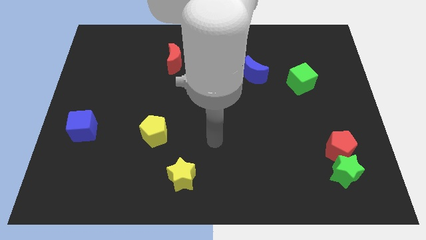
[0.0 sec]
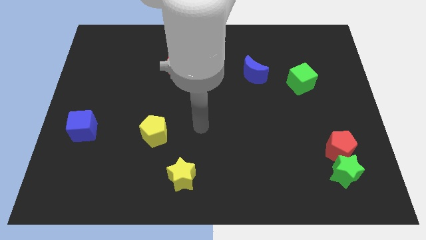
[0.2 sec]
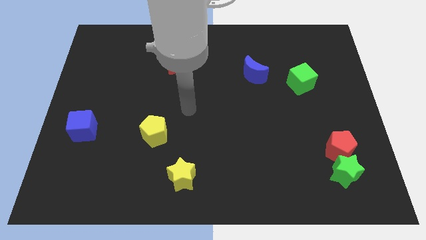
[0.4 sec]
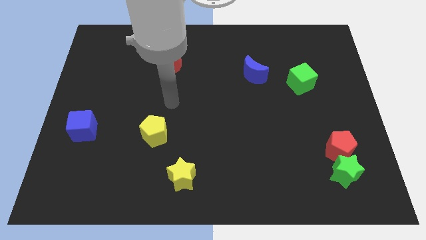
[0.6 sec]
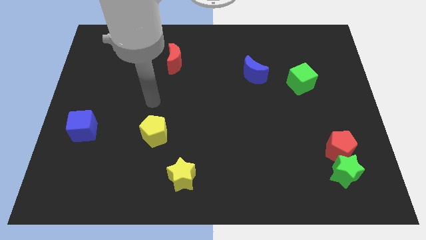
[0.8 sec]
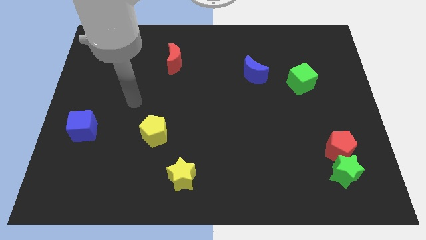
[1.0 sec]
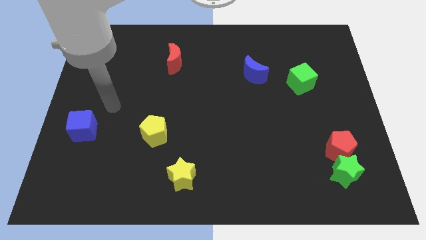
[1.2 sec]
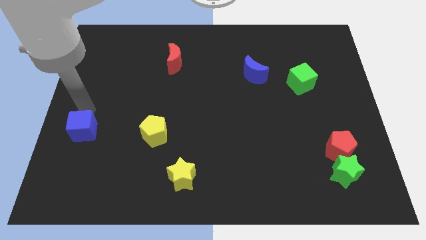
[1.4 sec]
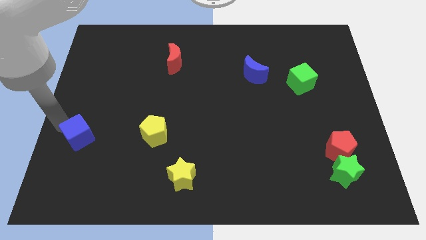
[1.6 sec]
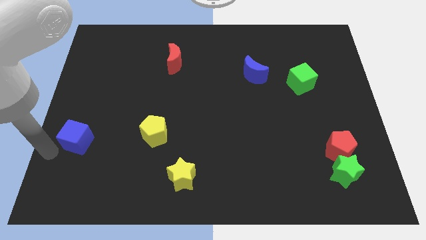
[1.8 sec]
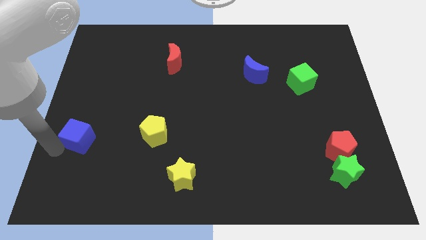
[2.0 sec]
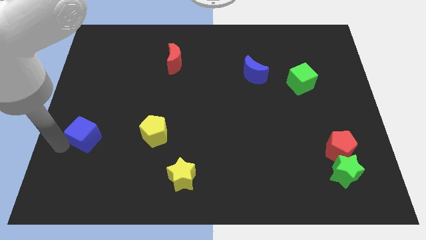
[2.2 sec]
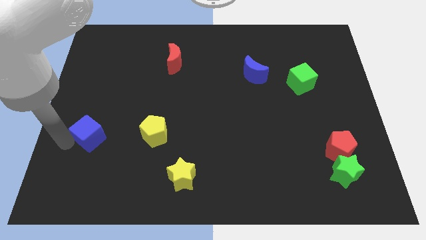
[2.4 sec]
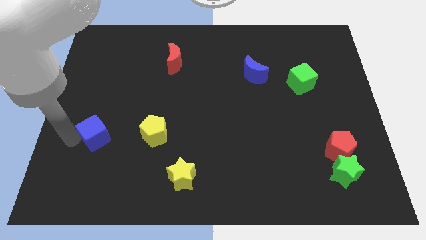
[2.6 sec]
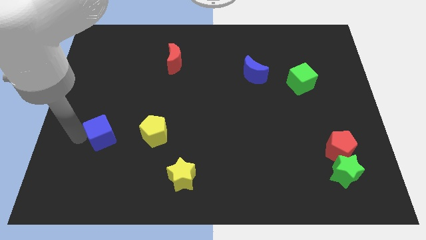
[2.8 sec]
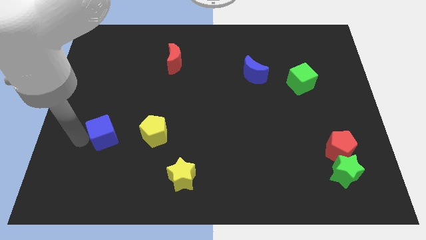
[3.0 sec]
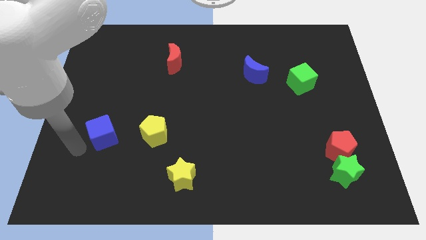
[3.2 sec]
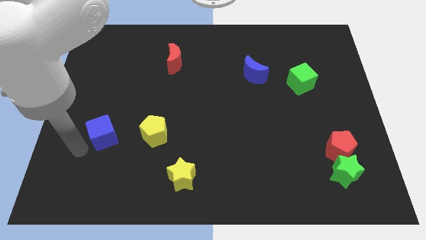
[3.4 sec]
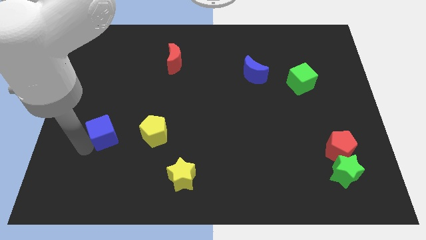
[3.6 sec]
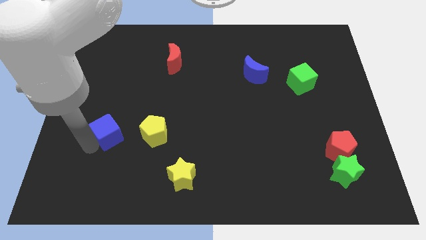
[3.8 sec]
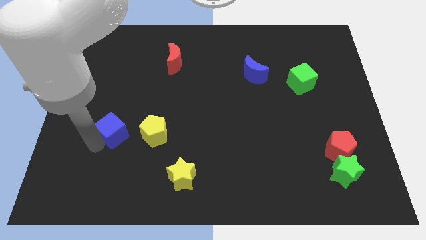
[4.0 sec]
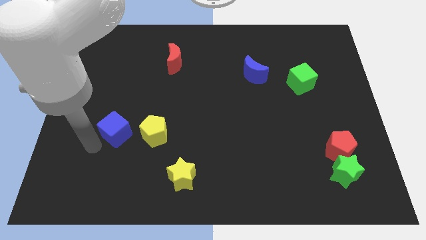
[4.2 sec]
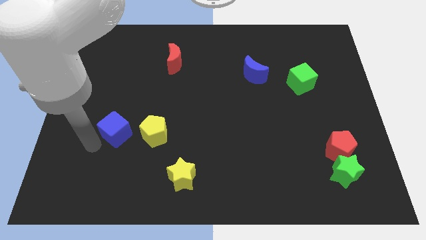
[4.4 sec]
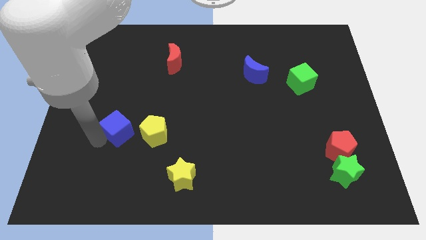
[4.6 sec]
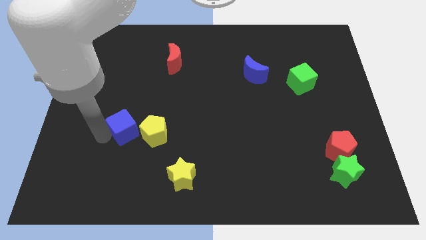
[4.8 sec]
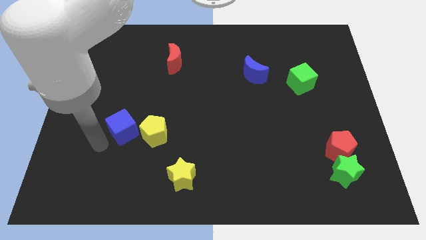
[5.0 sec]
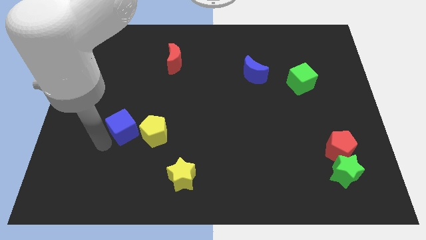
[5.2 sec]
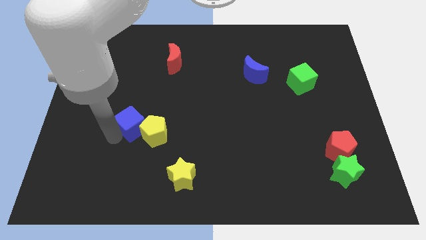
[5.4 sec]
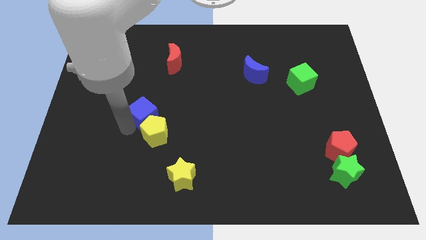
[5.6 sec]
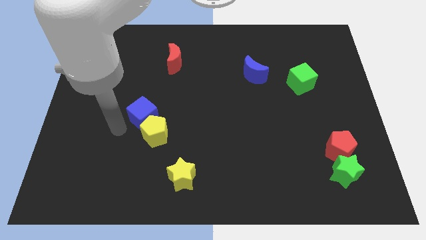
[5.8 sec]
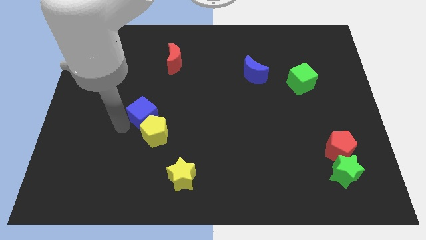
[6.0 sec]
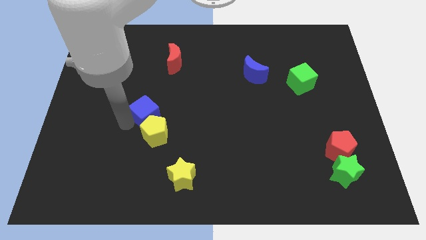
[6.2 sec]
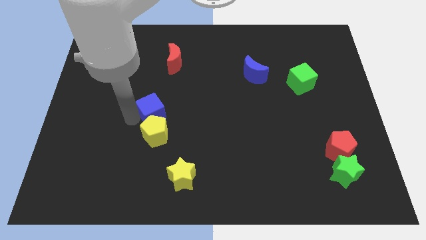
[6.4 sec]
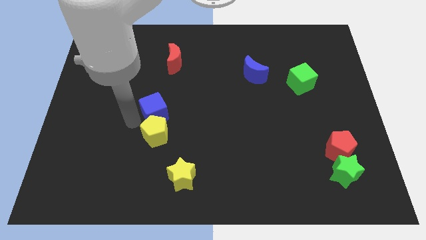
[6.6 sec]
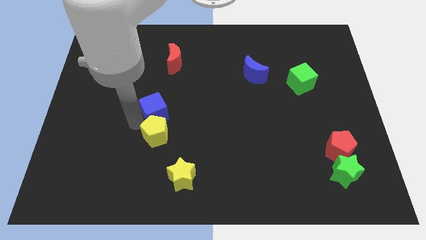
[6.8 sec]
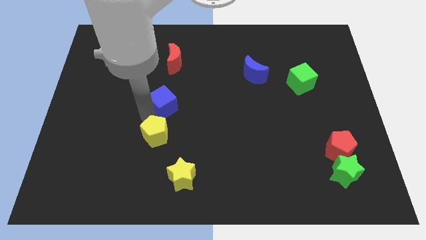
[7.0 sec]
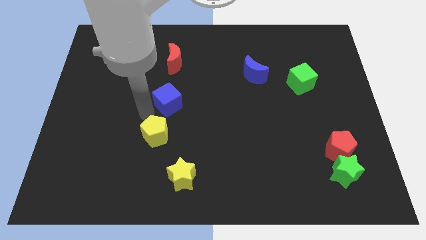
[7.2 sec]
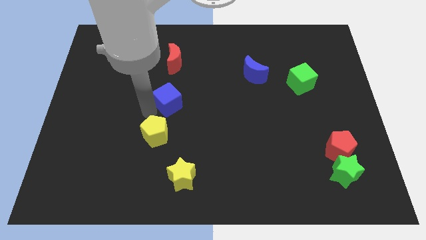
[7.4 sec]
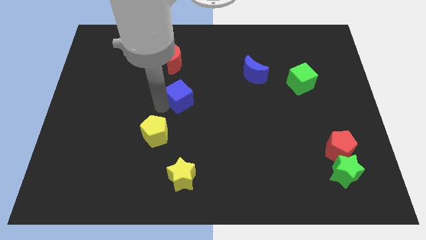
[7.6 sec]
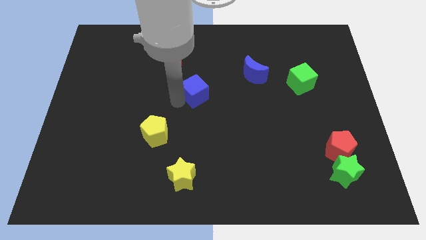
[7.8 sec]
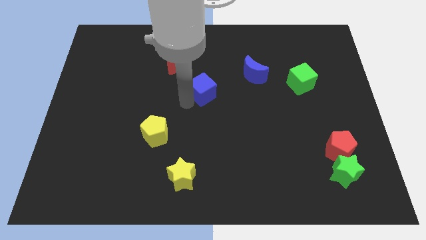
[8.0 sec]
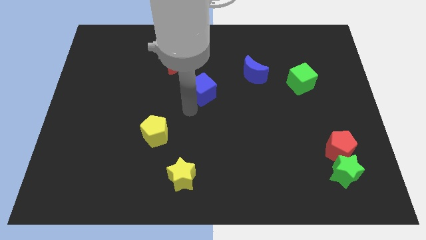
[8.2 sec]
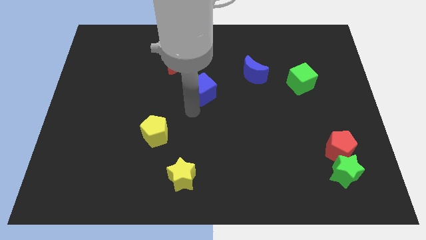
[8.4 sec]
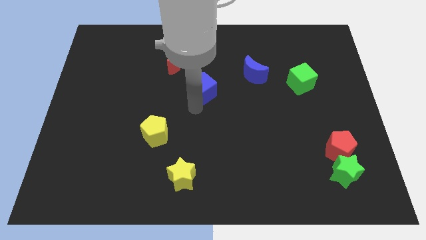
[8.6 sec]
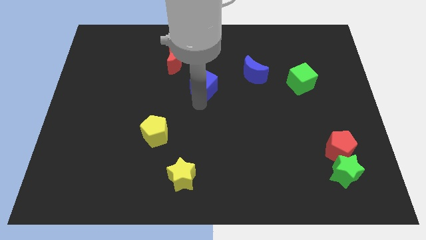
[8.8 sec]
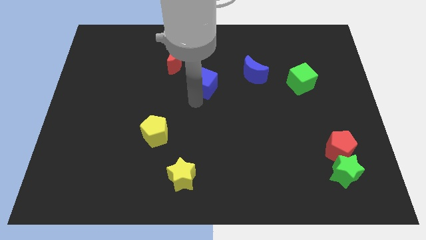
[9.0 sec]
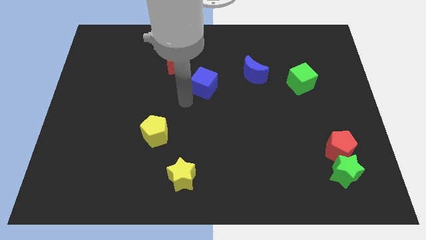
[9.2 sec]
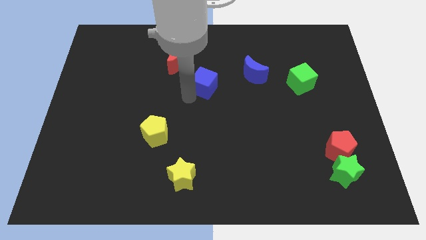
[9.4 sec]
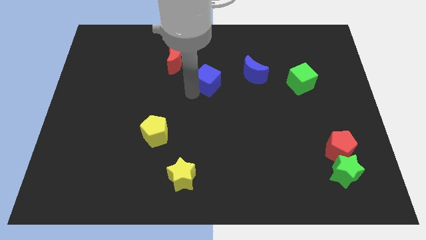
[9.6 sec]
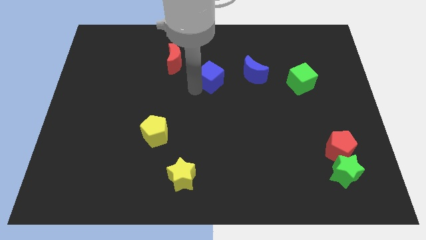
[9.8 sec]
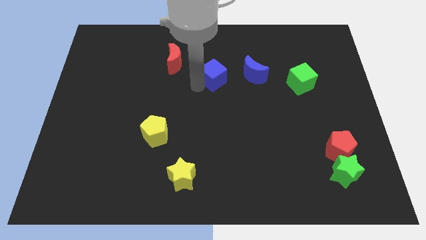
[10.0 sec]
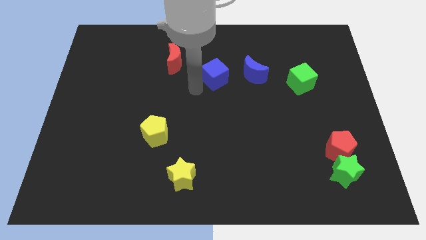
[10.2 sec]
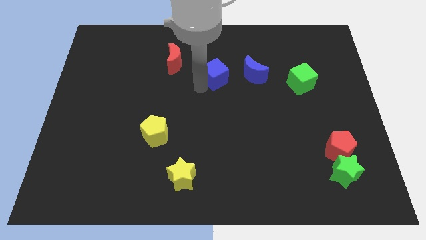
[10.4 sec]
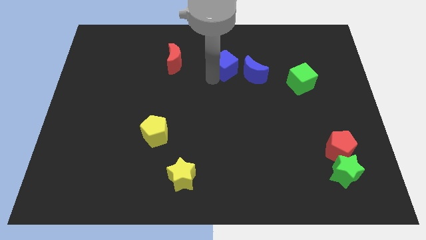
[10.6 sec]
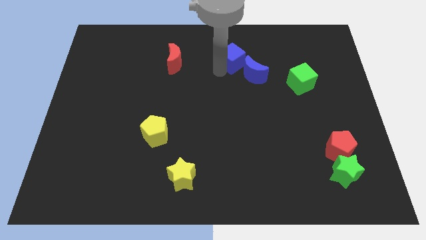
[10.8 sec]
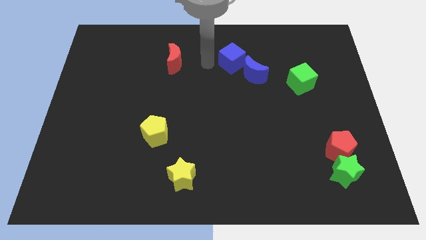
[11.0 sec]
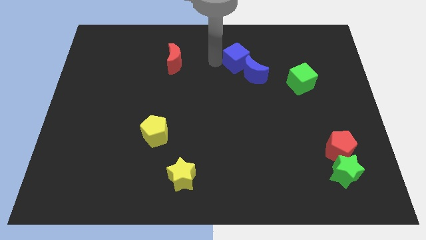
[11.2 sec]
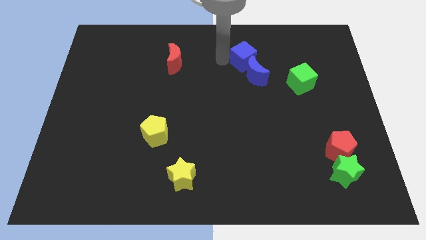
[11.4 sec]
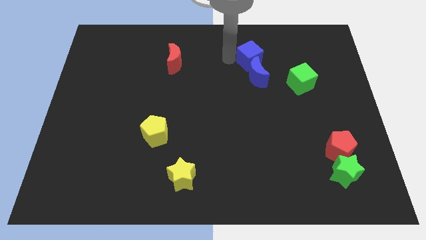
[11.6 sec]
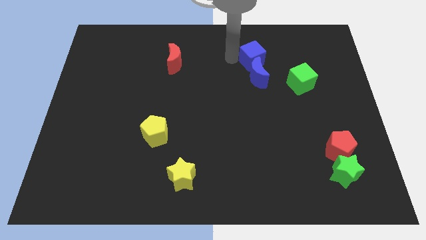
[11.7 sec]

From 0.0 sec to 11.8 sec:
push the blue cube to the top right of the blue moon
